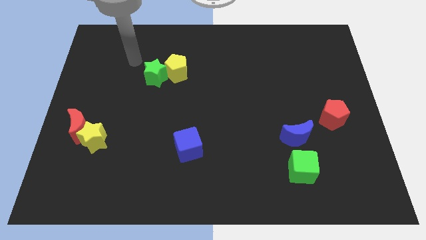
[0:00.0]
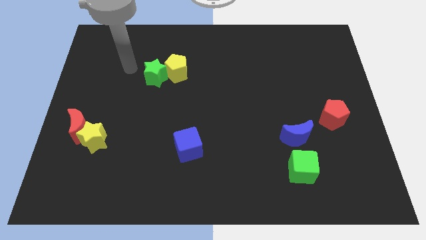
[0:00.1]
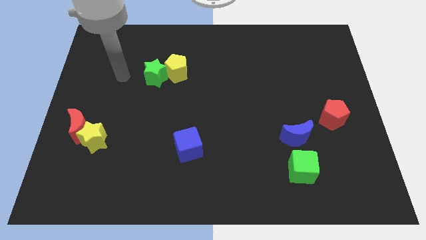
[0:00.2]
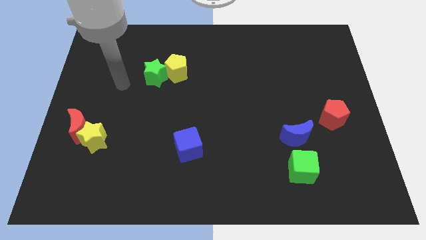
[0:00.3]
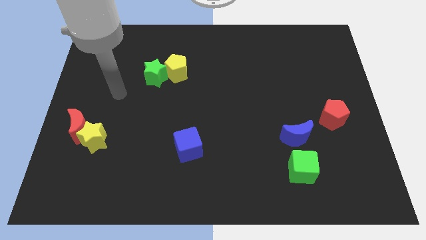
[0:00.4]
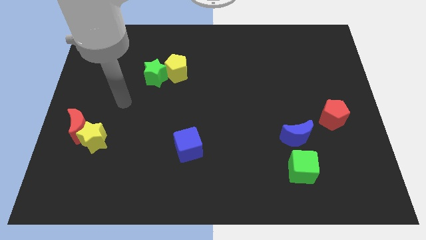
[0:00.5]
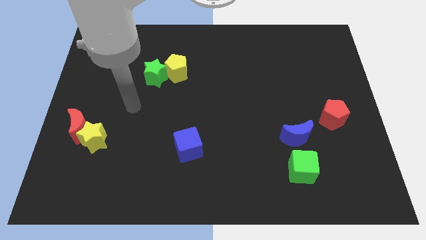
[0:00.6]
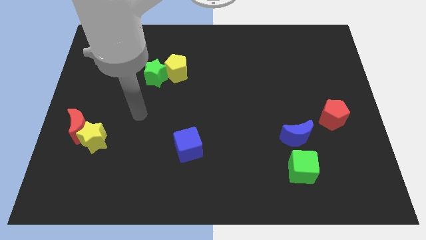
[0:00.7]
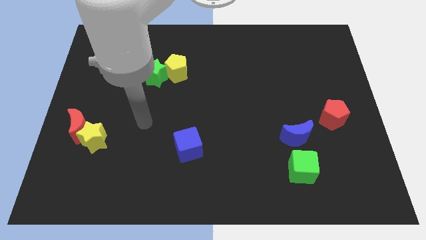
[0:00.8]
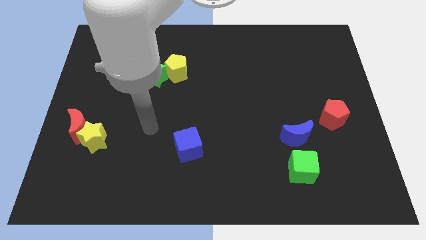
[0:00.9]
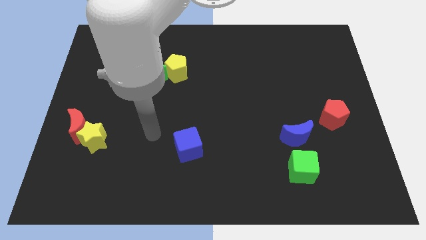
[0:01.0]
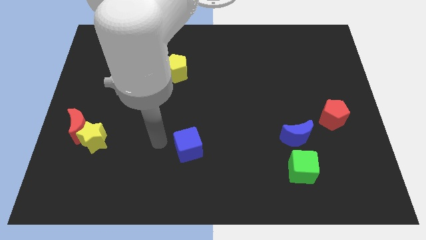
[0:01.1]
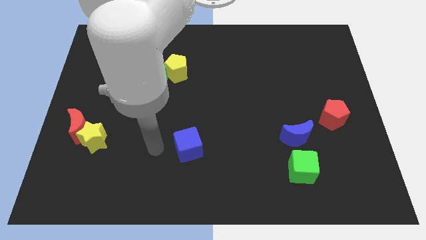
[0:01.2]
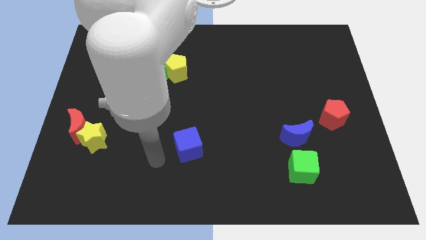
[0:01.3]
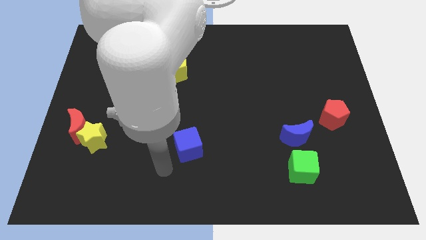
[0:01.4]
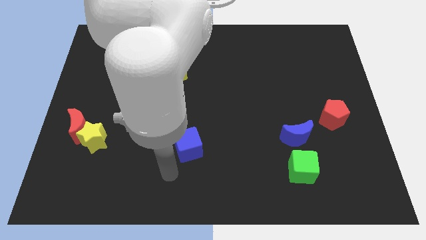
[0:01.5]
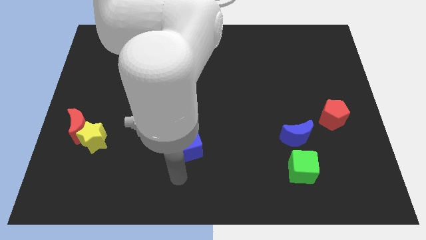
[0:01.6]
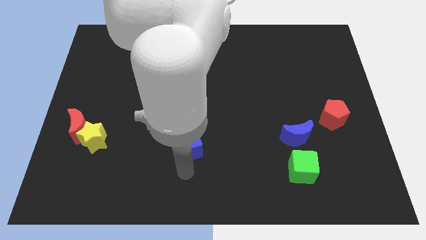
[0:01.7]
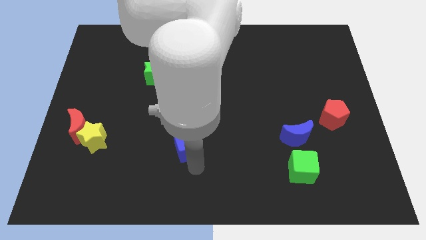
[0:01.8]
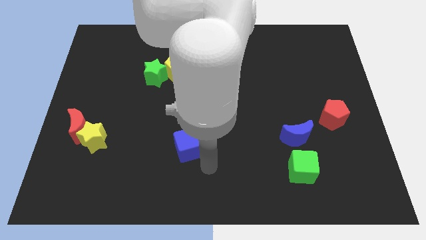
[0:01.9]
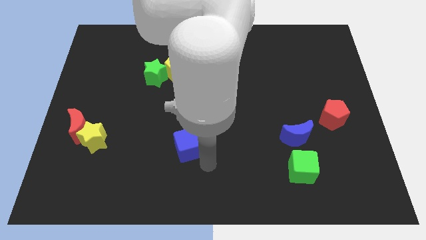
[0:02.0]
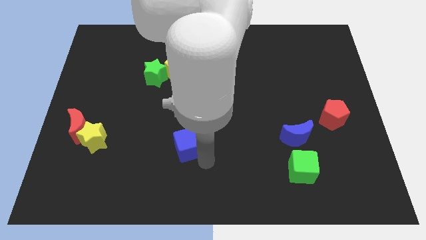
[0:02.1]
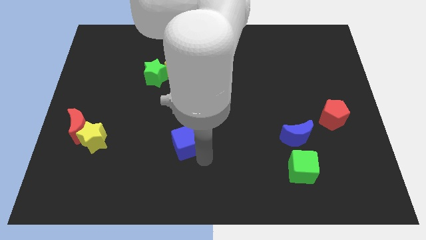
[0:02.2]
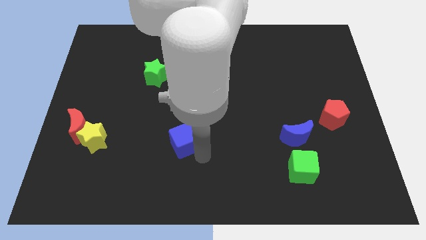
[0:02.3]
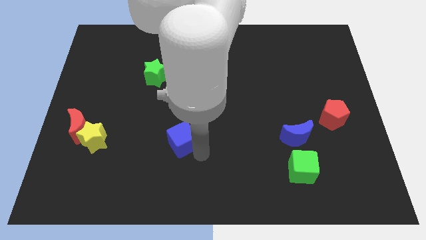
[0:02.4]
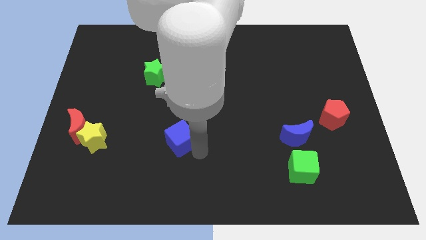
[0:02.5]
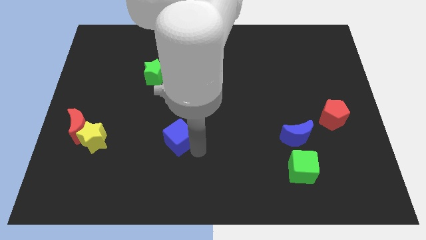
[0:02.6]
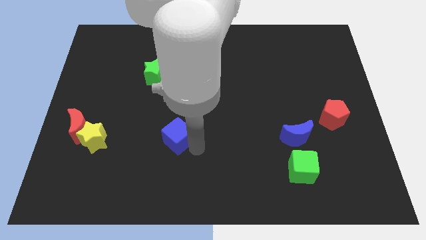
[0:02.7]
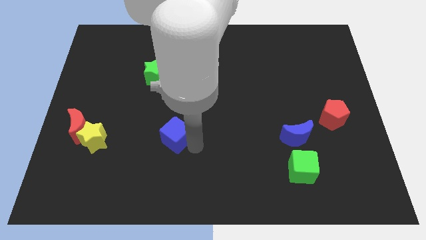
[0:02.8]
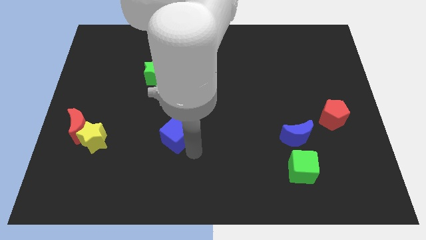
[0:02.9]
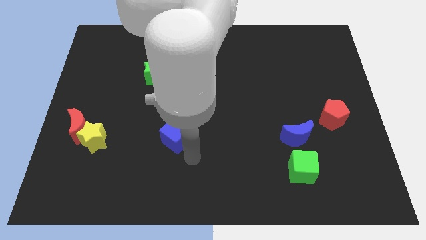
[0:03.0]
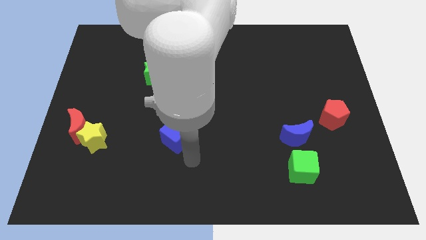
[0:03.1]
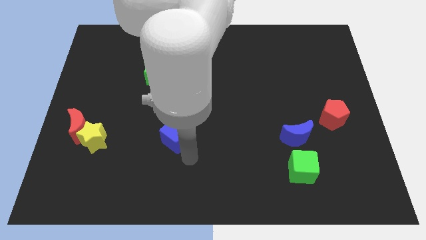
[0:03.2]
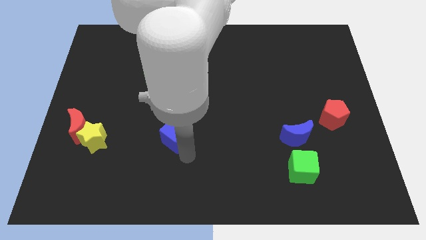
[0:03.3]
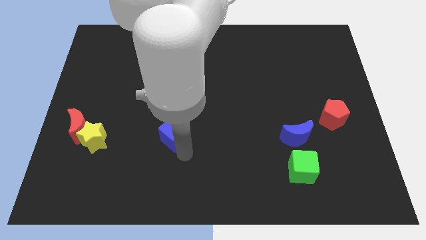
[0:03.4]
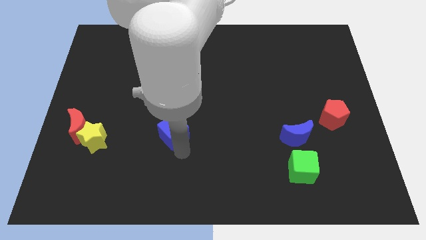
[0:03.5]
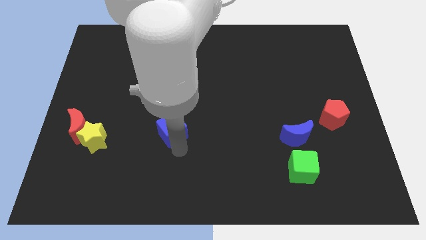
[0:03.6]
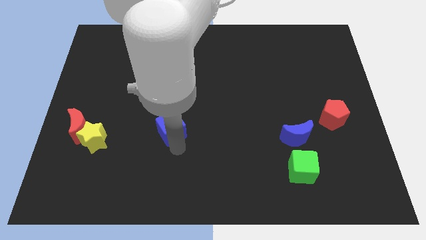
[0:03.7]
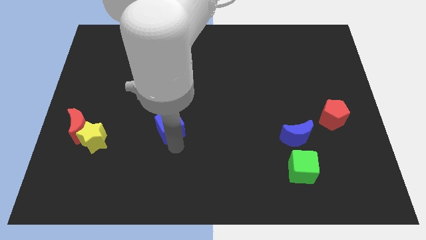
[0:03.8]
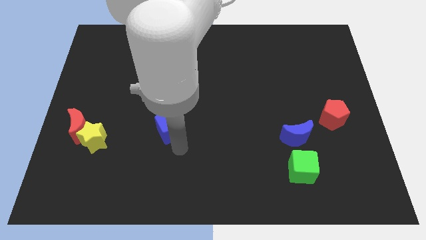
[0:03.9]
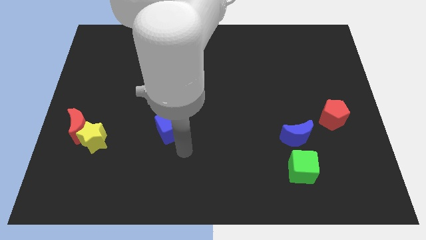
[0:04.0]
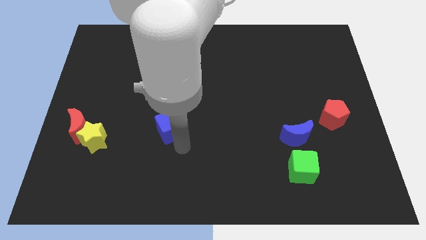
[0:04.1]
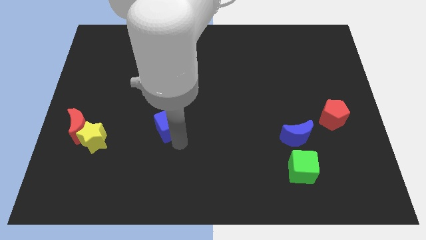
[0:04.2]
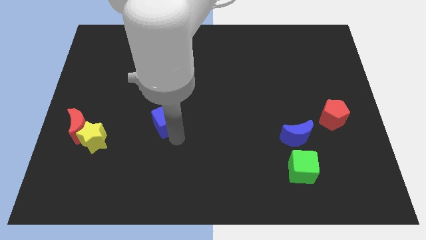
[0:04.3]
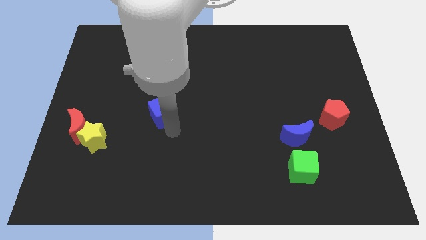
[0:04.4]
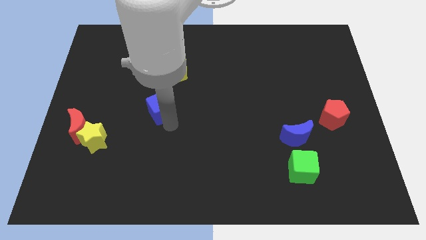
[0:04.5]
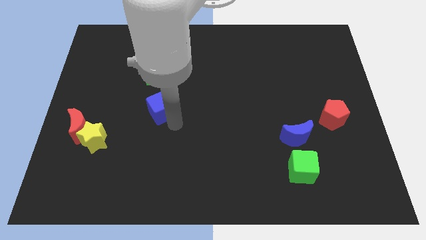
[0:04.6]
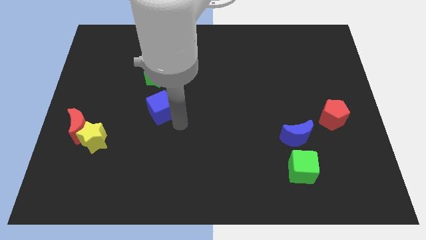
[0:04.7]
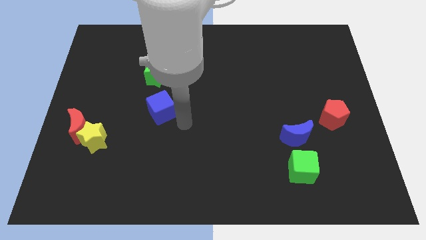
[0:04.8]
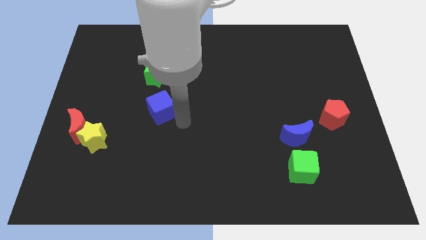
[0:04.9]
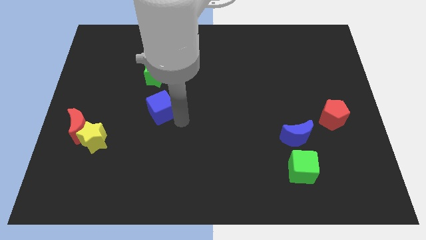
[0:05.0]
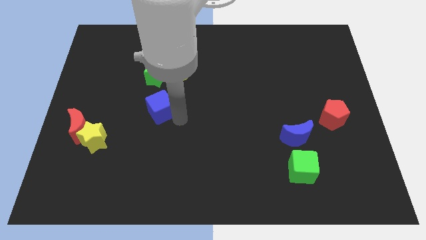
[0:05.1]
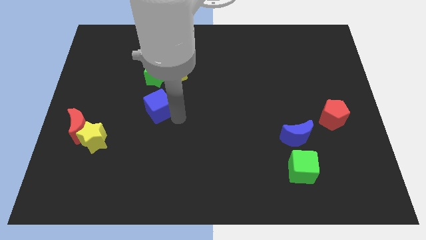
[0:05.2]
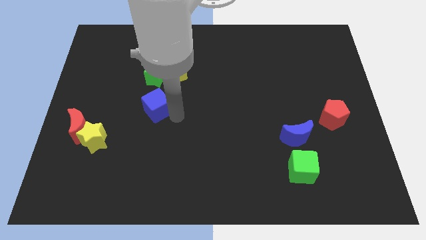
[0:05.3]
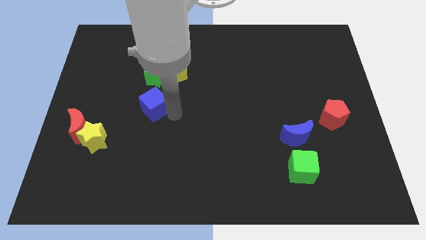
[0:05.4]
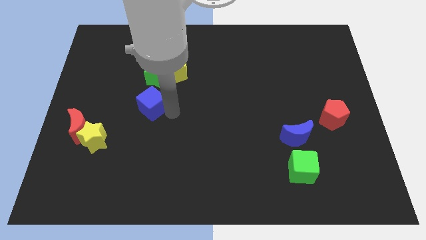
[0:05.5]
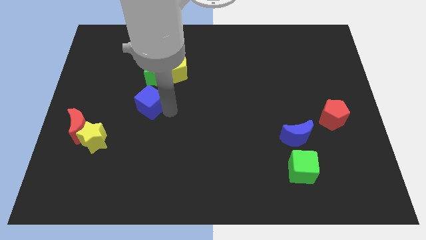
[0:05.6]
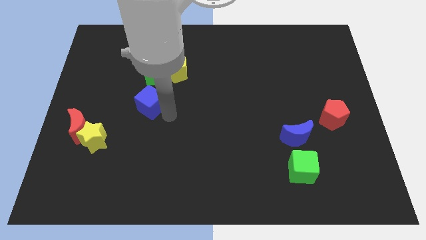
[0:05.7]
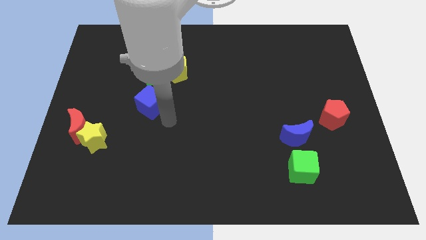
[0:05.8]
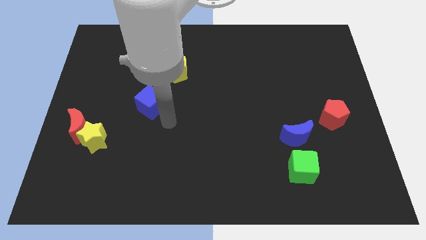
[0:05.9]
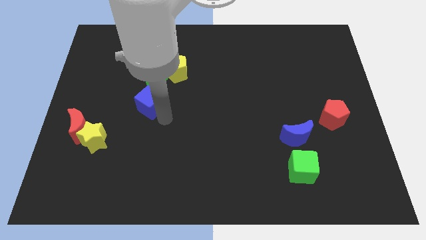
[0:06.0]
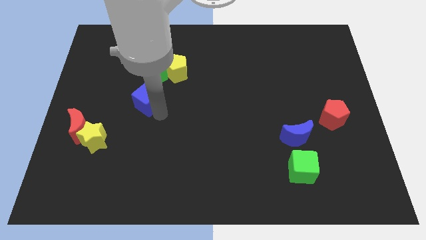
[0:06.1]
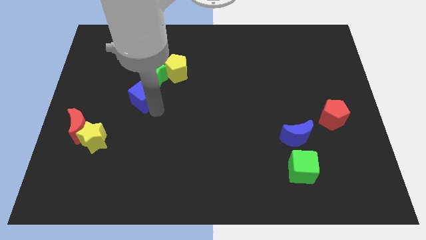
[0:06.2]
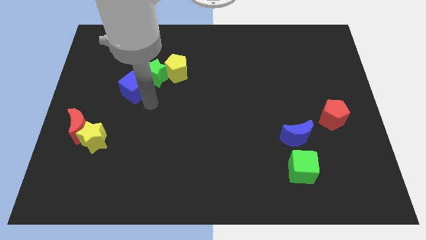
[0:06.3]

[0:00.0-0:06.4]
push the blue cube upwards and then to the left

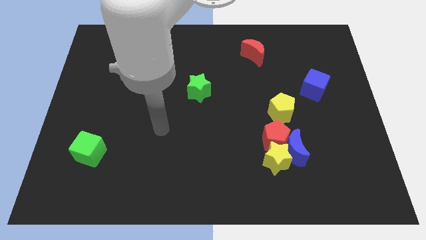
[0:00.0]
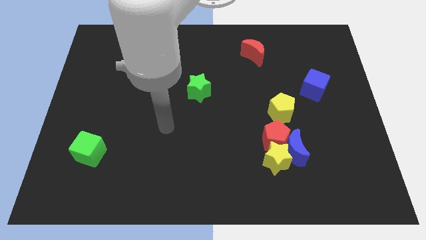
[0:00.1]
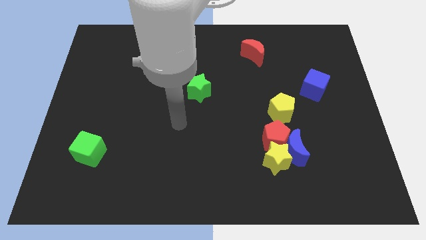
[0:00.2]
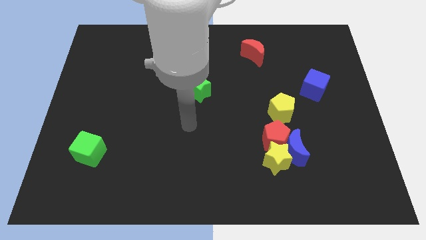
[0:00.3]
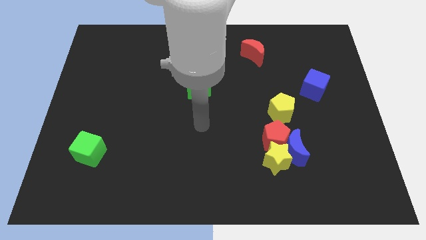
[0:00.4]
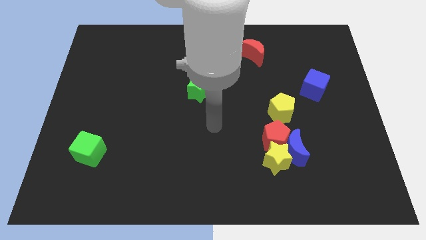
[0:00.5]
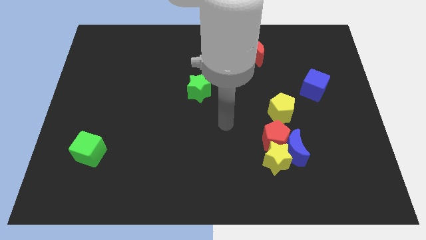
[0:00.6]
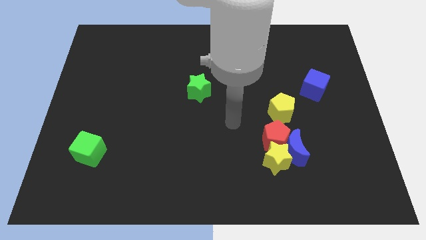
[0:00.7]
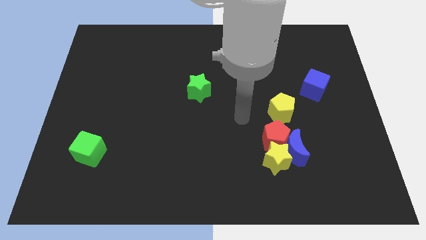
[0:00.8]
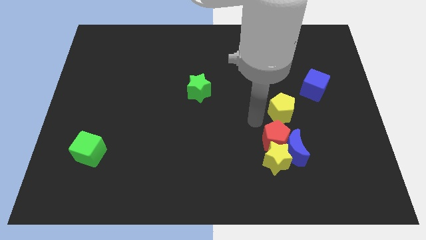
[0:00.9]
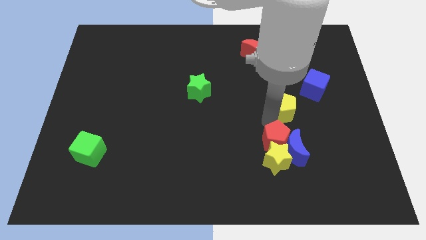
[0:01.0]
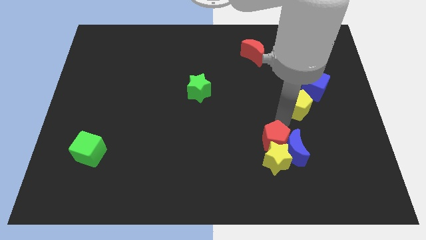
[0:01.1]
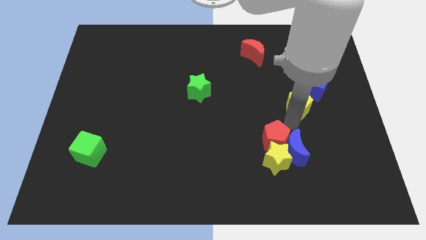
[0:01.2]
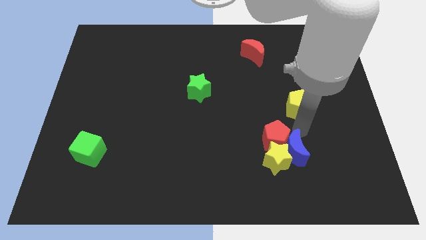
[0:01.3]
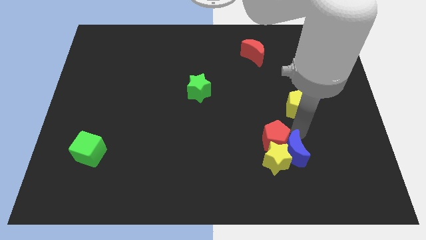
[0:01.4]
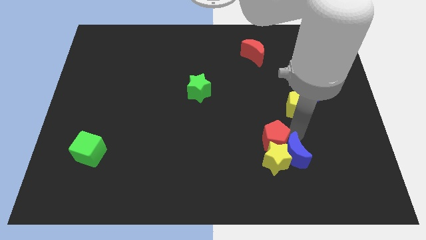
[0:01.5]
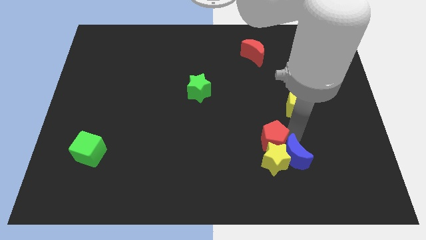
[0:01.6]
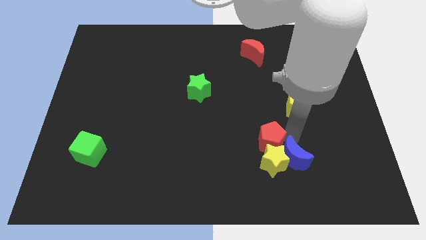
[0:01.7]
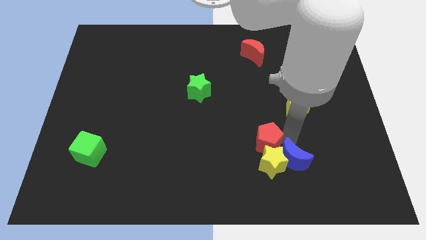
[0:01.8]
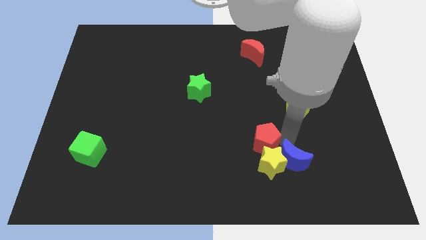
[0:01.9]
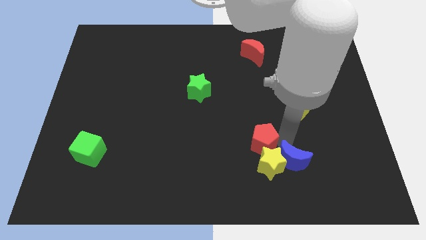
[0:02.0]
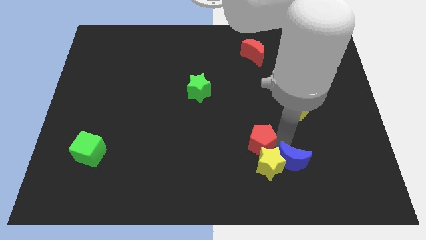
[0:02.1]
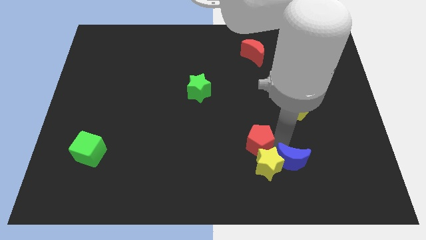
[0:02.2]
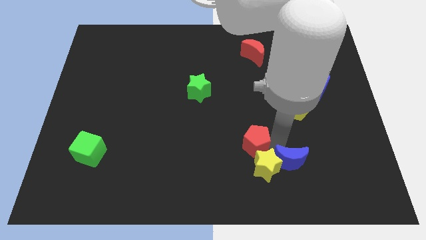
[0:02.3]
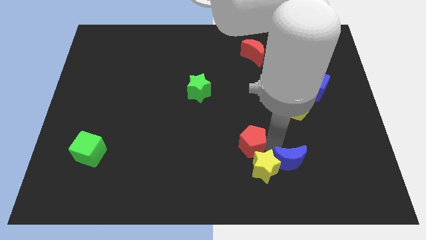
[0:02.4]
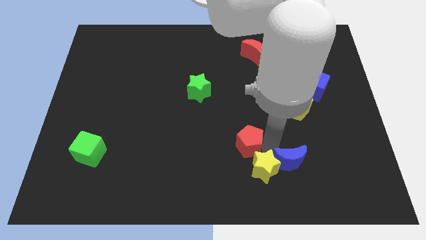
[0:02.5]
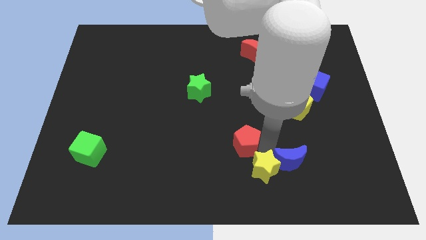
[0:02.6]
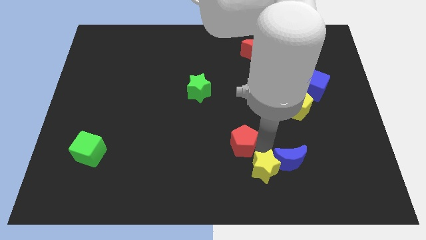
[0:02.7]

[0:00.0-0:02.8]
slide the red pentagon left a little bit
